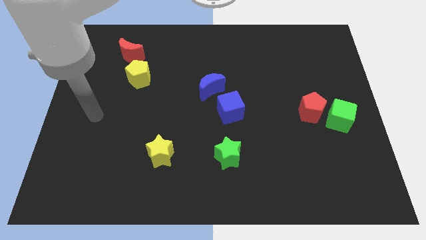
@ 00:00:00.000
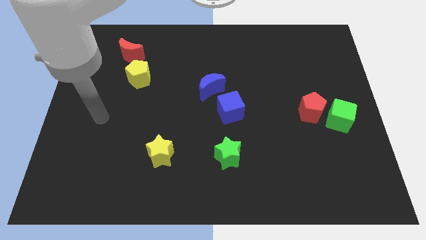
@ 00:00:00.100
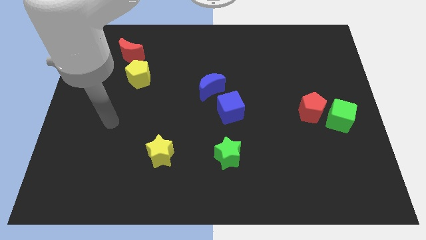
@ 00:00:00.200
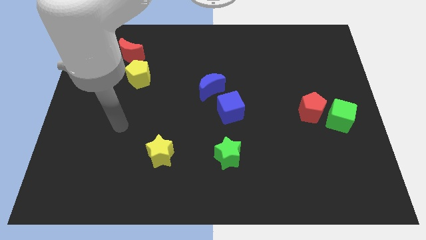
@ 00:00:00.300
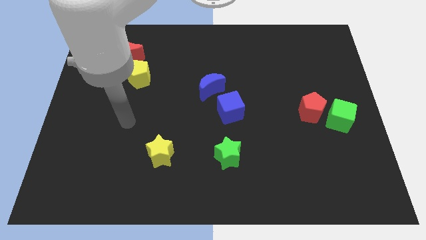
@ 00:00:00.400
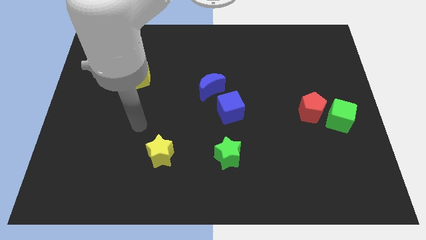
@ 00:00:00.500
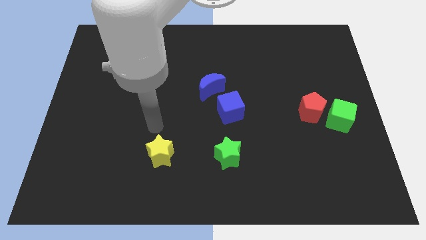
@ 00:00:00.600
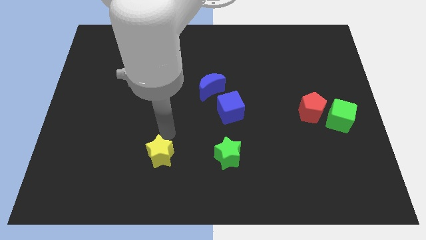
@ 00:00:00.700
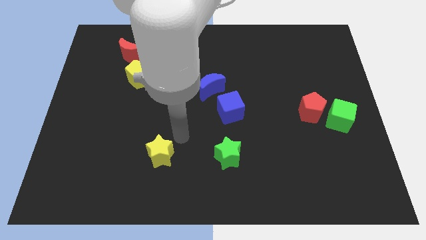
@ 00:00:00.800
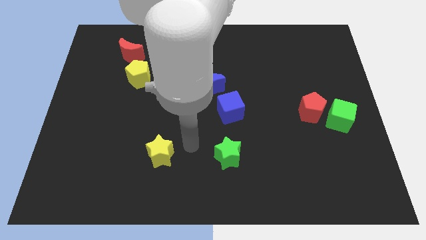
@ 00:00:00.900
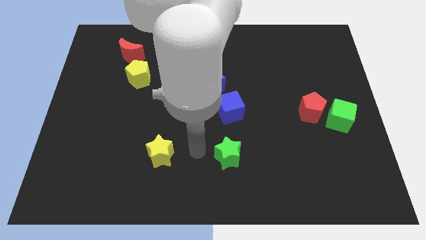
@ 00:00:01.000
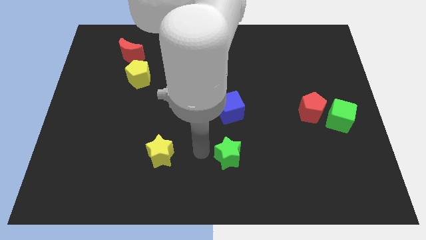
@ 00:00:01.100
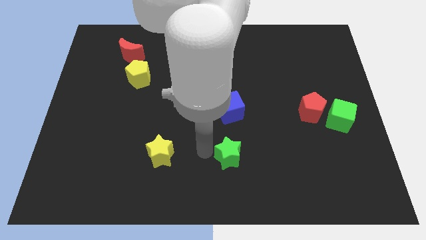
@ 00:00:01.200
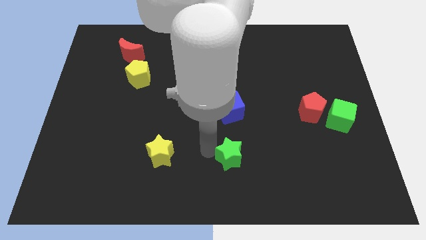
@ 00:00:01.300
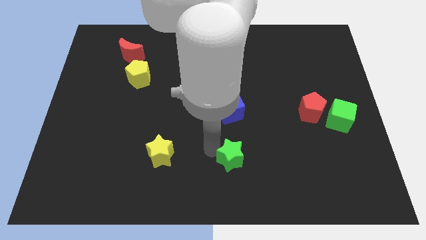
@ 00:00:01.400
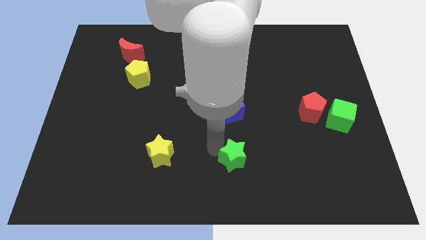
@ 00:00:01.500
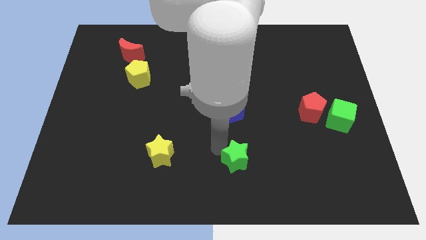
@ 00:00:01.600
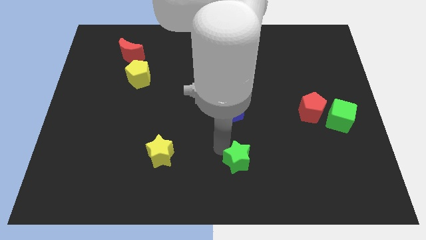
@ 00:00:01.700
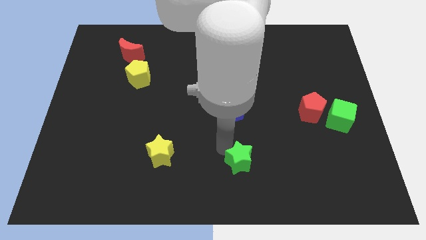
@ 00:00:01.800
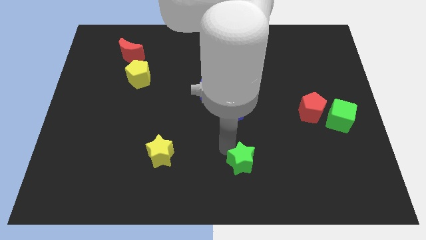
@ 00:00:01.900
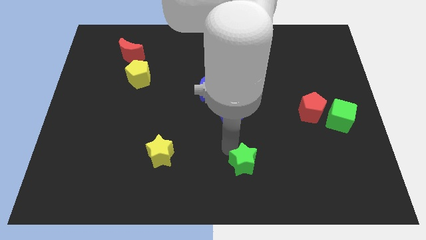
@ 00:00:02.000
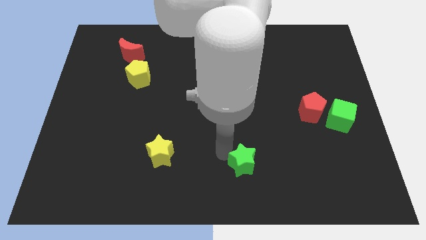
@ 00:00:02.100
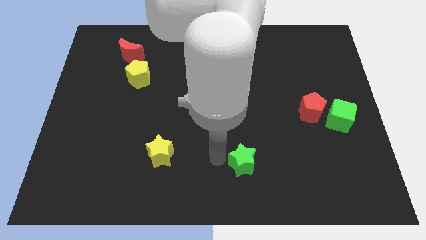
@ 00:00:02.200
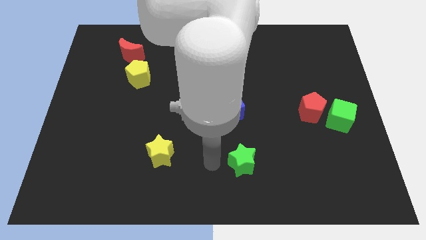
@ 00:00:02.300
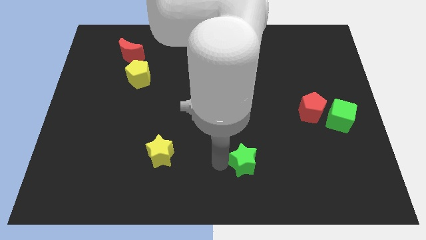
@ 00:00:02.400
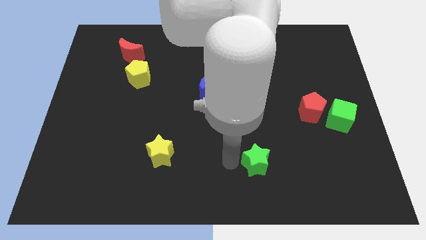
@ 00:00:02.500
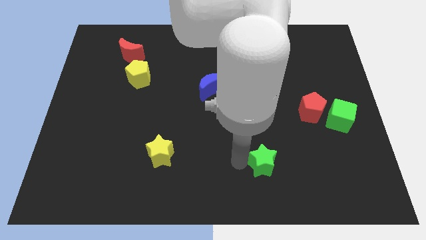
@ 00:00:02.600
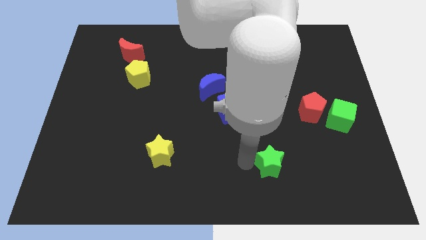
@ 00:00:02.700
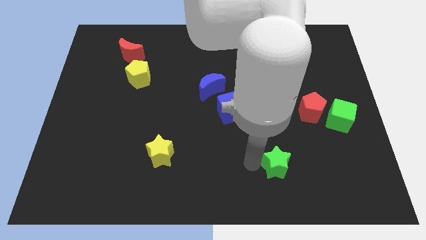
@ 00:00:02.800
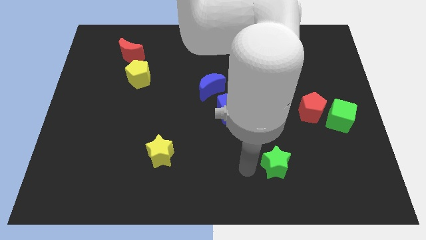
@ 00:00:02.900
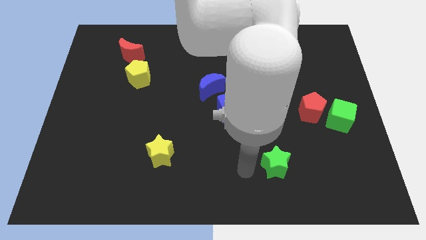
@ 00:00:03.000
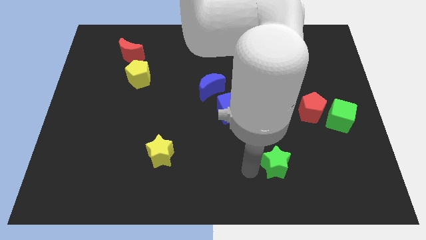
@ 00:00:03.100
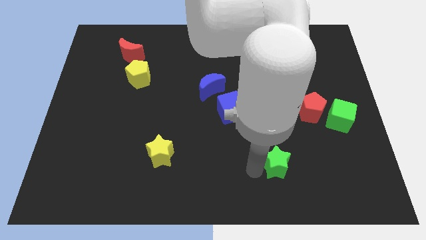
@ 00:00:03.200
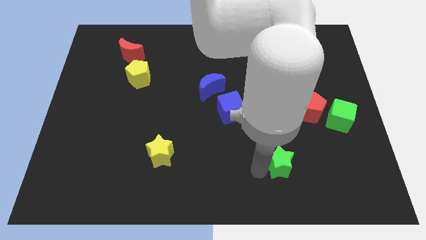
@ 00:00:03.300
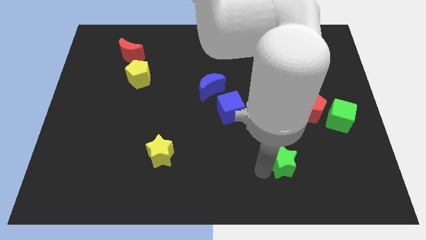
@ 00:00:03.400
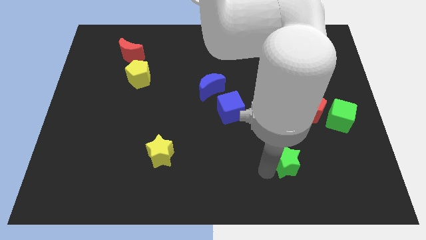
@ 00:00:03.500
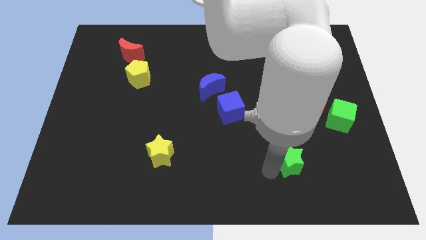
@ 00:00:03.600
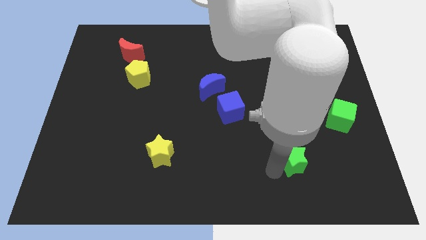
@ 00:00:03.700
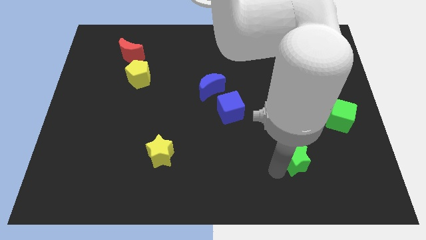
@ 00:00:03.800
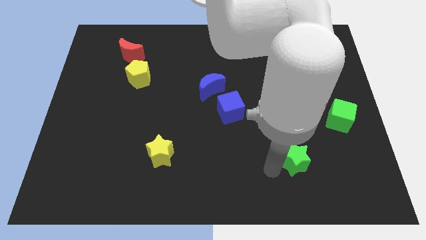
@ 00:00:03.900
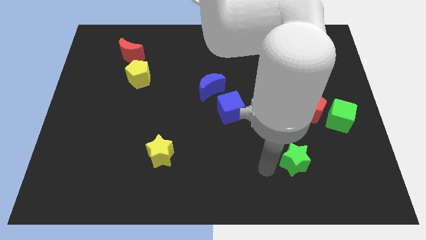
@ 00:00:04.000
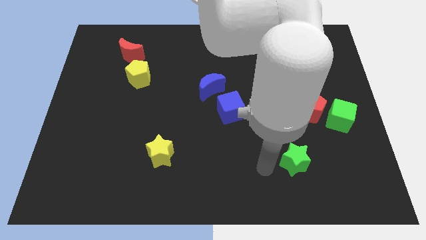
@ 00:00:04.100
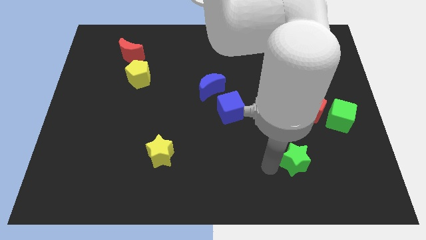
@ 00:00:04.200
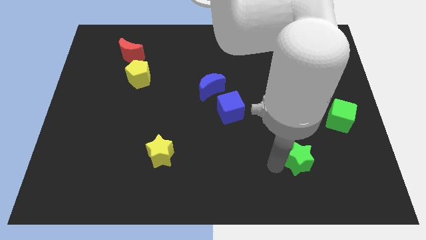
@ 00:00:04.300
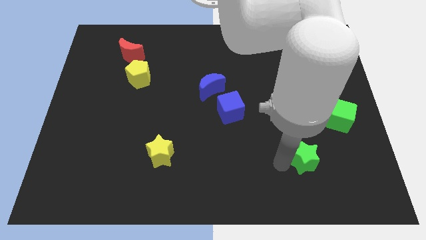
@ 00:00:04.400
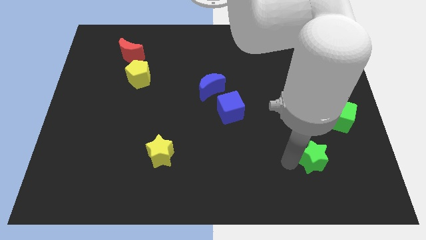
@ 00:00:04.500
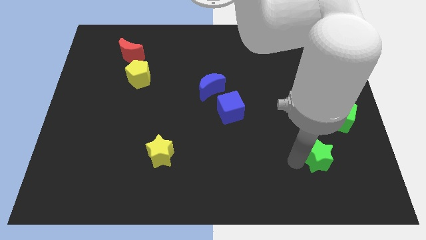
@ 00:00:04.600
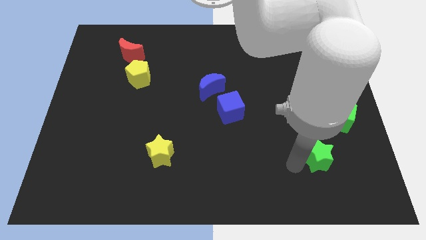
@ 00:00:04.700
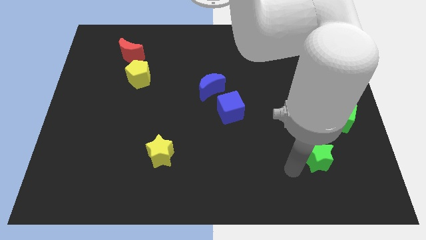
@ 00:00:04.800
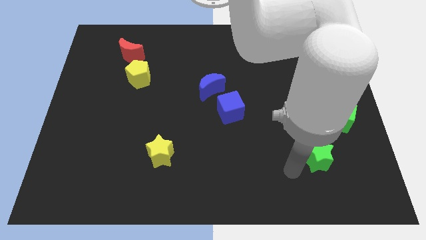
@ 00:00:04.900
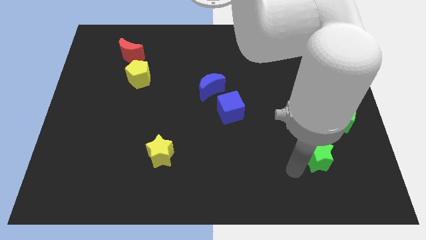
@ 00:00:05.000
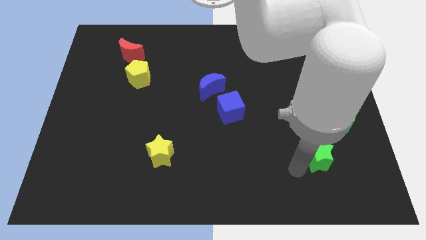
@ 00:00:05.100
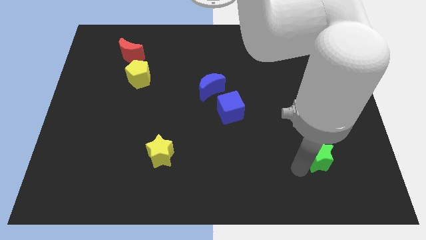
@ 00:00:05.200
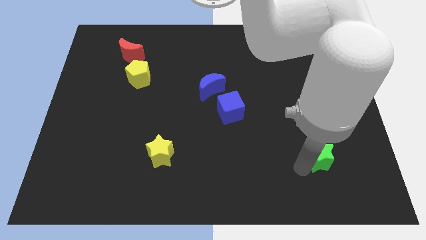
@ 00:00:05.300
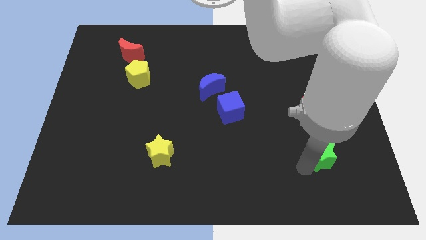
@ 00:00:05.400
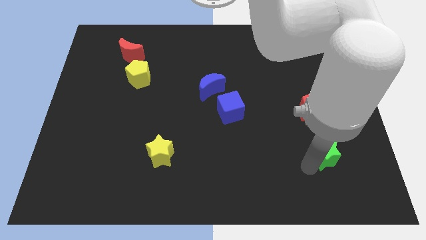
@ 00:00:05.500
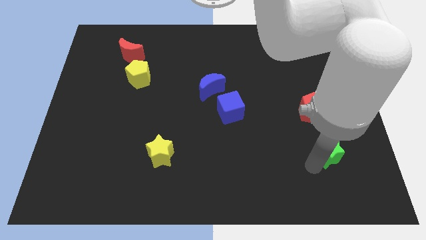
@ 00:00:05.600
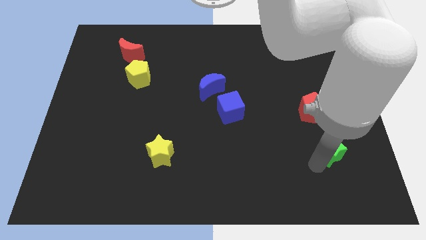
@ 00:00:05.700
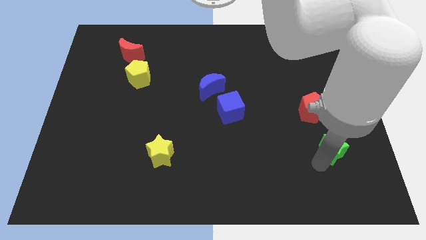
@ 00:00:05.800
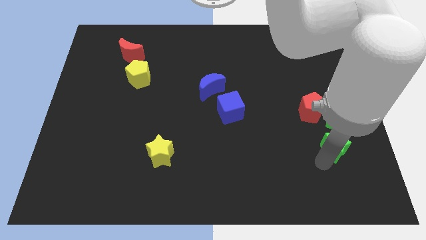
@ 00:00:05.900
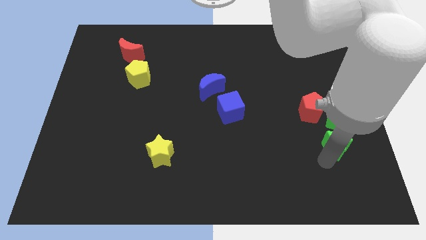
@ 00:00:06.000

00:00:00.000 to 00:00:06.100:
slide the green star diagonally down and to the right of the red pentagon

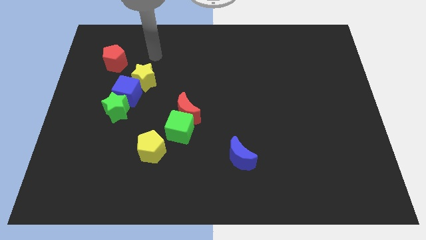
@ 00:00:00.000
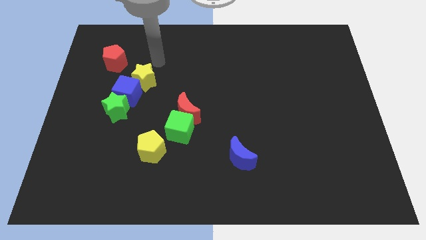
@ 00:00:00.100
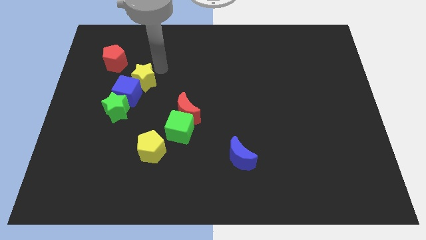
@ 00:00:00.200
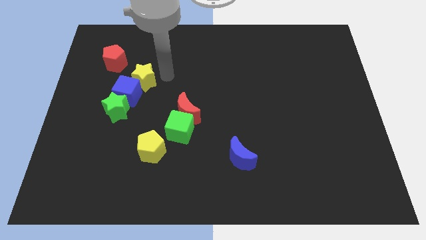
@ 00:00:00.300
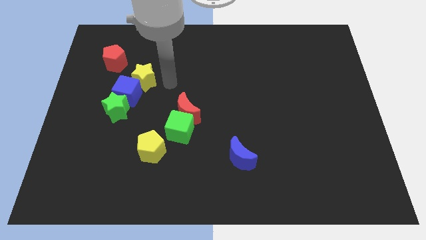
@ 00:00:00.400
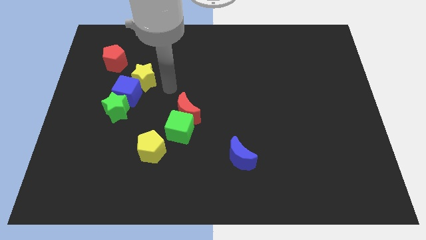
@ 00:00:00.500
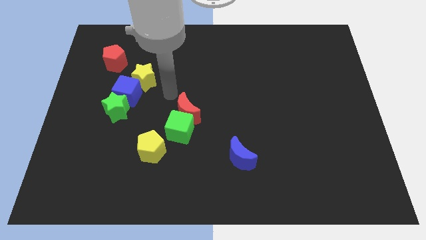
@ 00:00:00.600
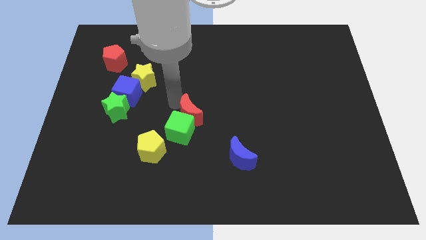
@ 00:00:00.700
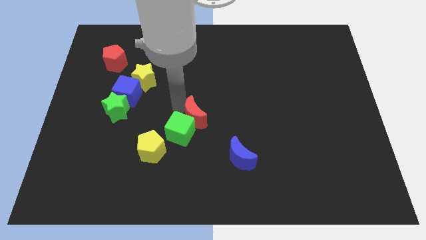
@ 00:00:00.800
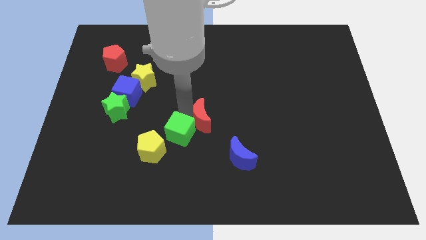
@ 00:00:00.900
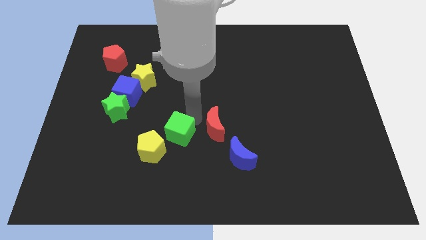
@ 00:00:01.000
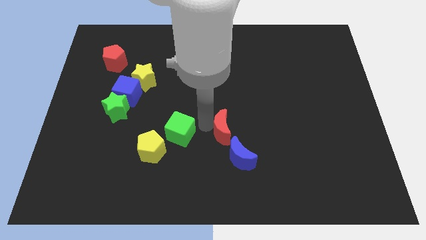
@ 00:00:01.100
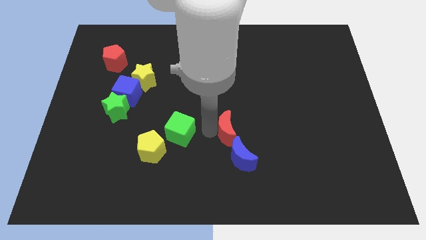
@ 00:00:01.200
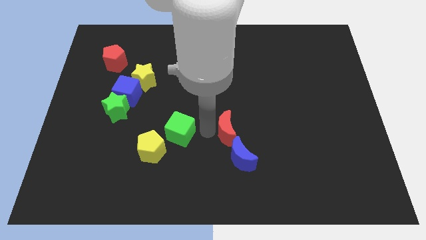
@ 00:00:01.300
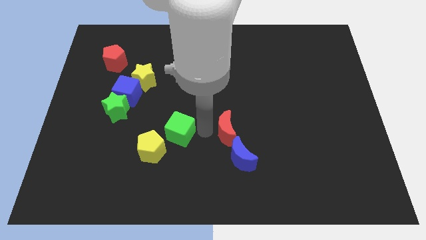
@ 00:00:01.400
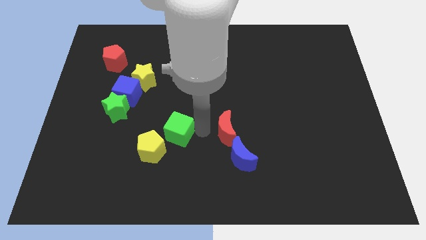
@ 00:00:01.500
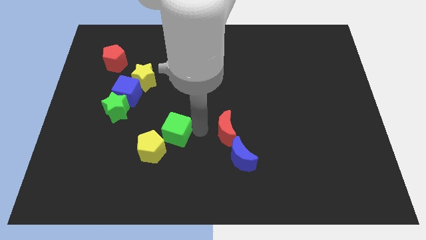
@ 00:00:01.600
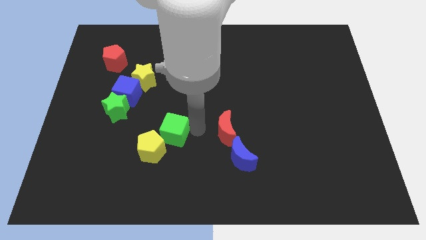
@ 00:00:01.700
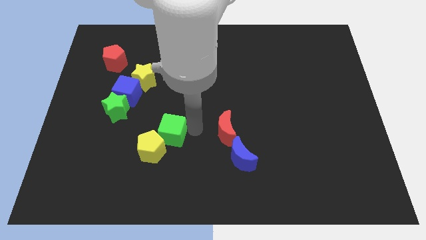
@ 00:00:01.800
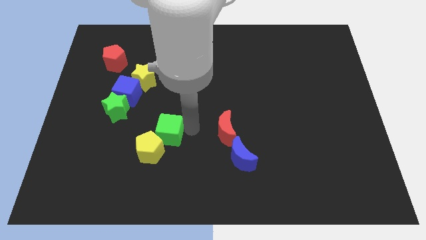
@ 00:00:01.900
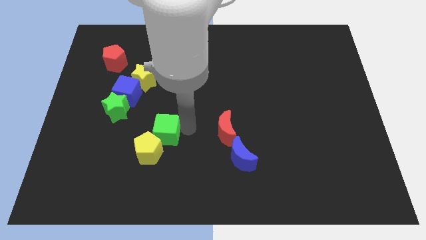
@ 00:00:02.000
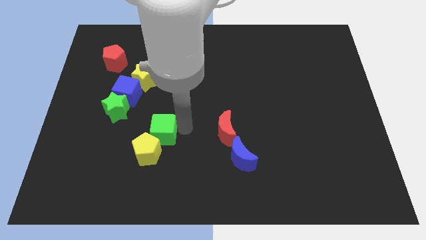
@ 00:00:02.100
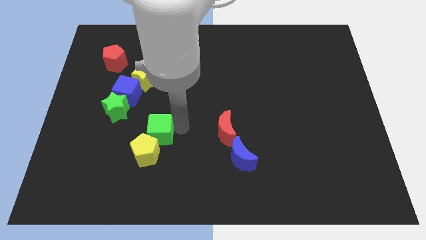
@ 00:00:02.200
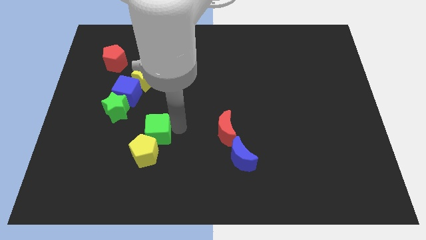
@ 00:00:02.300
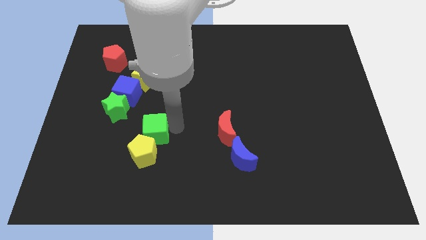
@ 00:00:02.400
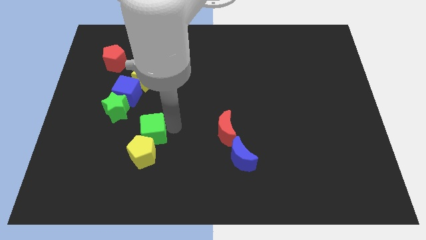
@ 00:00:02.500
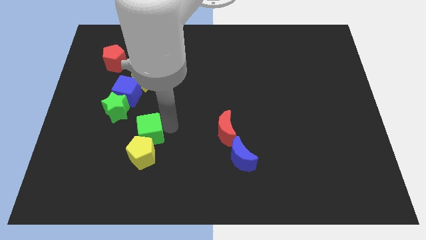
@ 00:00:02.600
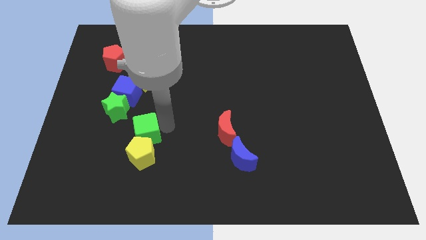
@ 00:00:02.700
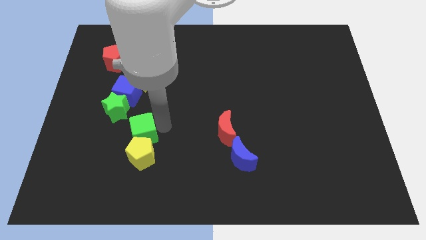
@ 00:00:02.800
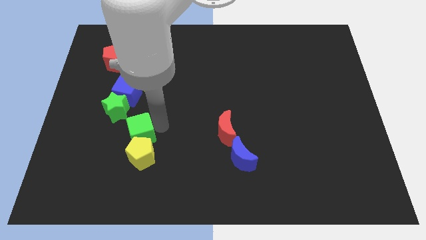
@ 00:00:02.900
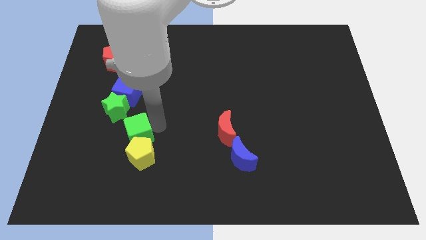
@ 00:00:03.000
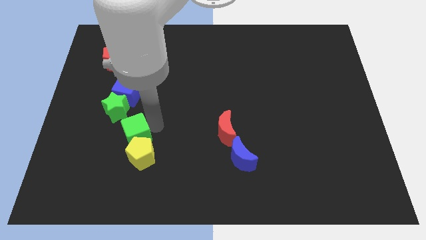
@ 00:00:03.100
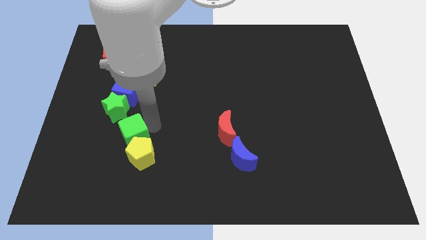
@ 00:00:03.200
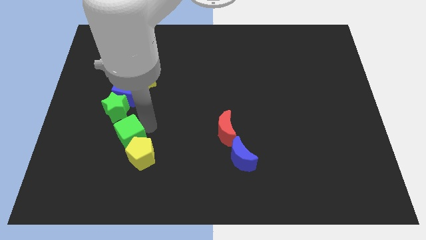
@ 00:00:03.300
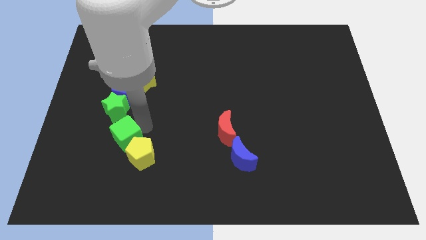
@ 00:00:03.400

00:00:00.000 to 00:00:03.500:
push the green cube to the left side of the yellow pentagon
